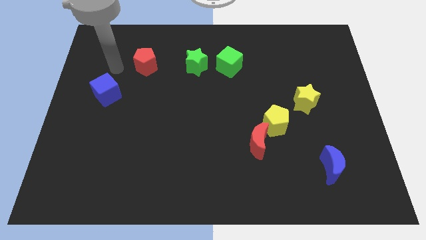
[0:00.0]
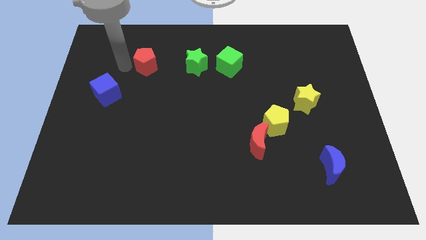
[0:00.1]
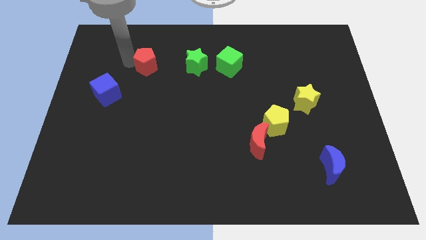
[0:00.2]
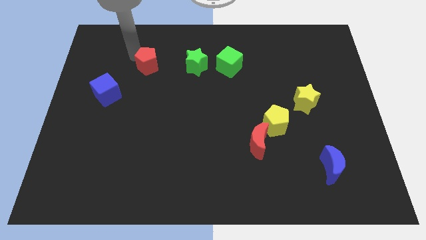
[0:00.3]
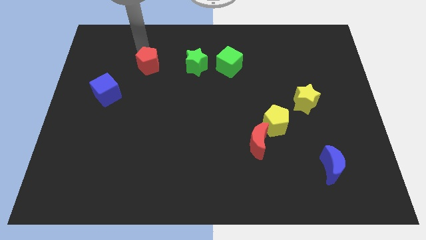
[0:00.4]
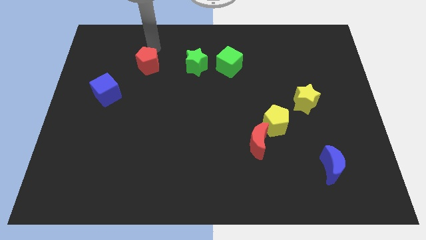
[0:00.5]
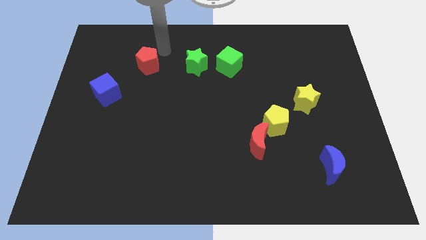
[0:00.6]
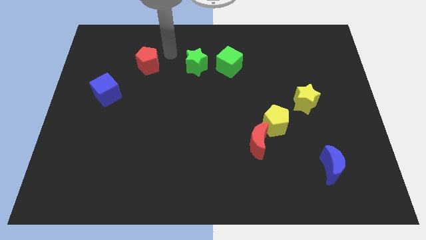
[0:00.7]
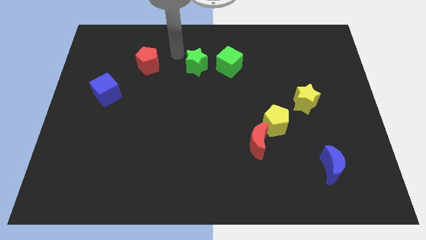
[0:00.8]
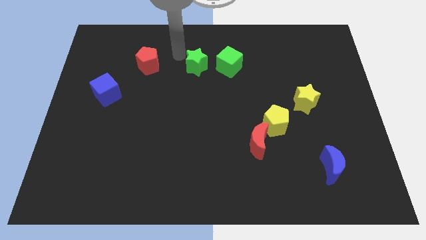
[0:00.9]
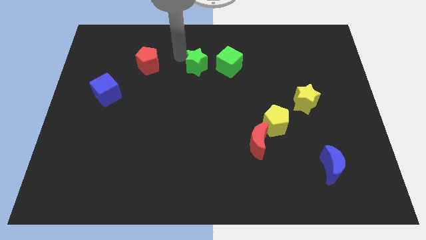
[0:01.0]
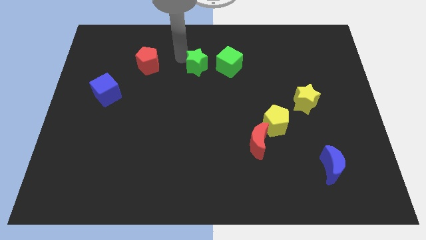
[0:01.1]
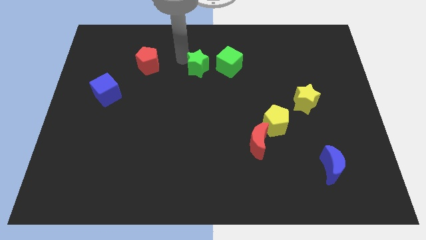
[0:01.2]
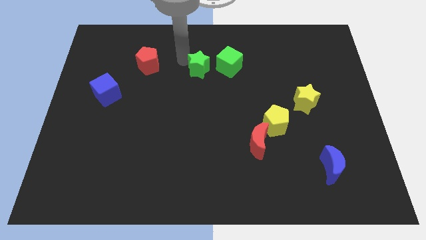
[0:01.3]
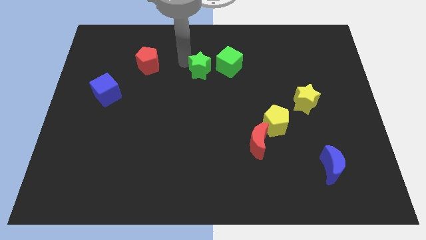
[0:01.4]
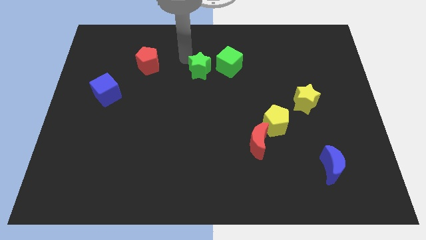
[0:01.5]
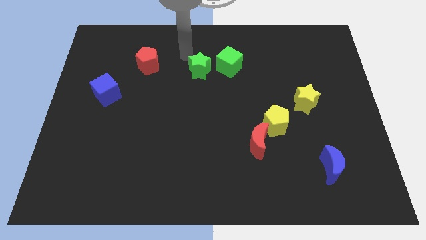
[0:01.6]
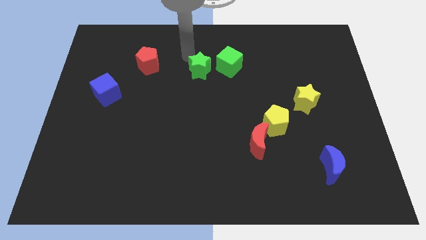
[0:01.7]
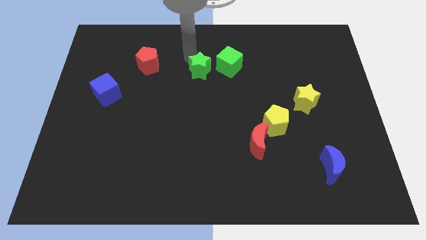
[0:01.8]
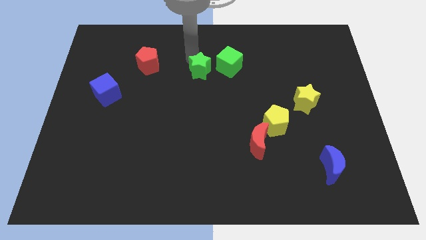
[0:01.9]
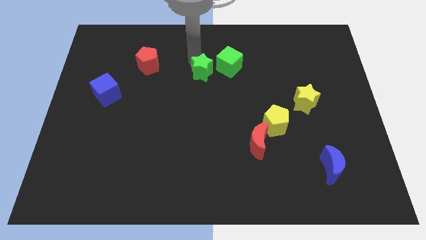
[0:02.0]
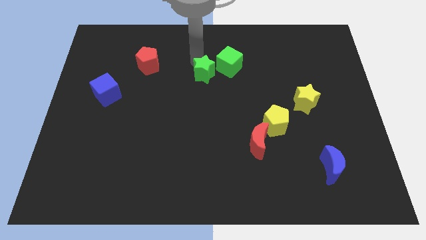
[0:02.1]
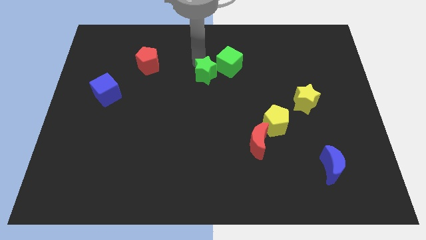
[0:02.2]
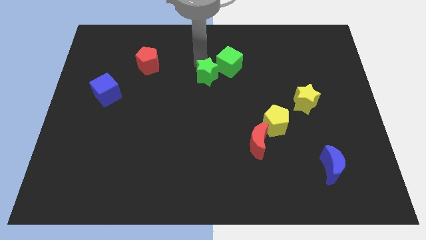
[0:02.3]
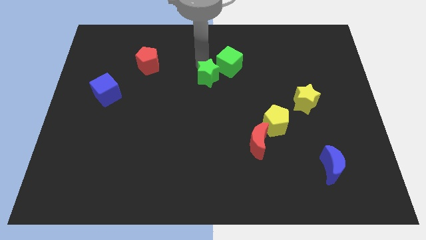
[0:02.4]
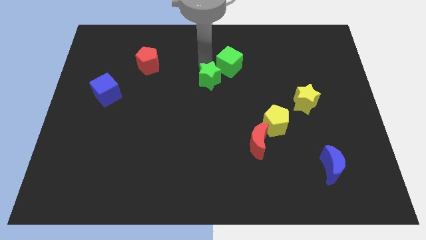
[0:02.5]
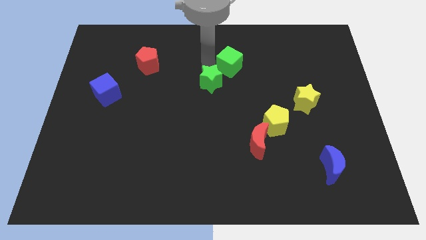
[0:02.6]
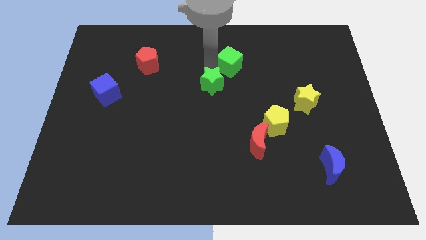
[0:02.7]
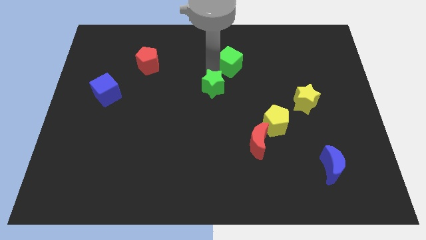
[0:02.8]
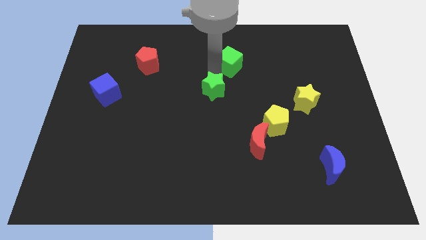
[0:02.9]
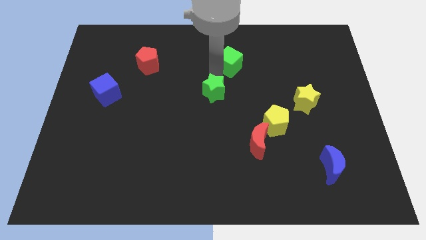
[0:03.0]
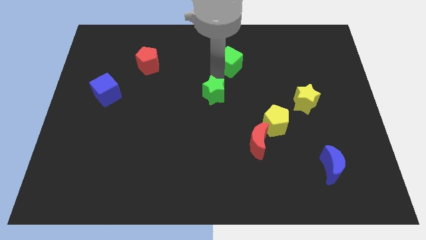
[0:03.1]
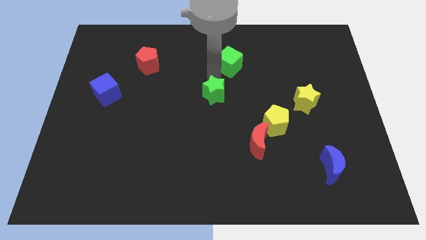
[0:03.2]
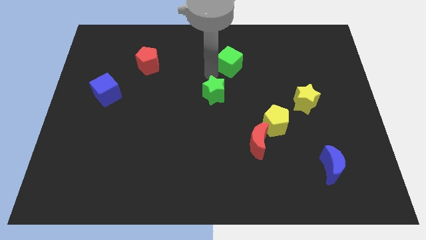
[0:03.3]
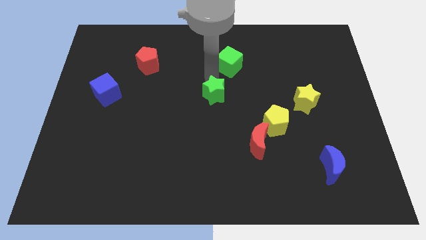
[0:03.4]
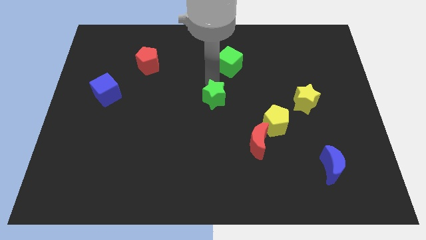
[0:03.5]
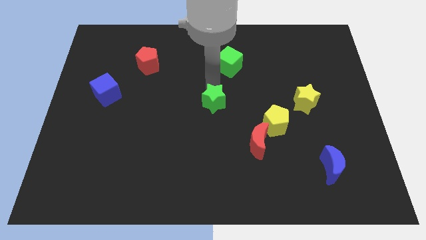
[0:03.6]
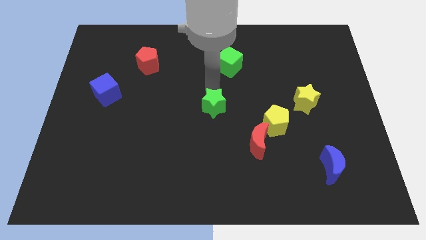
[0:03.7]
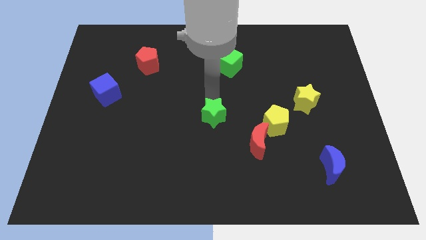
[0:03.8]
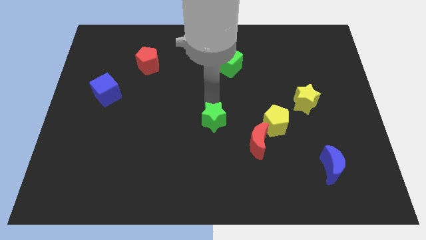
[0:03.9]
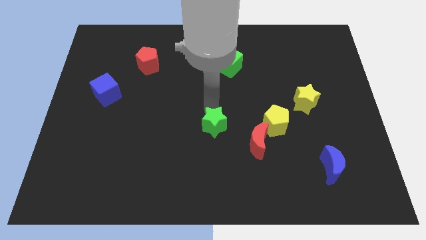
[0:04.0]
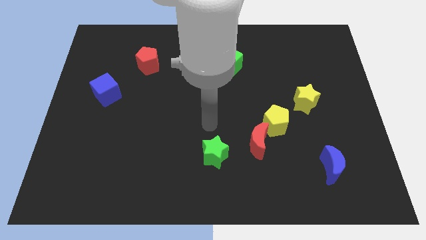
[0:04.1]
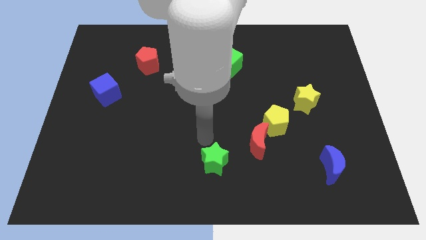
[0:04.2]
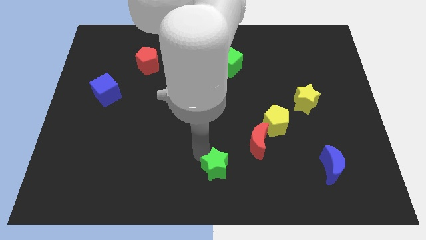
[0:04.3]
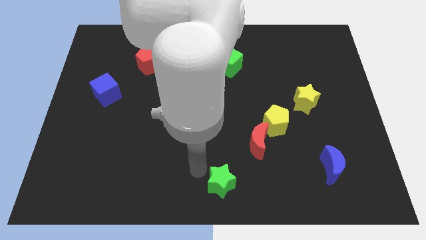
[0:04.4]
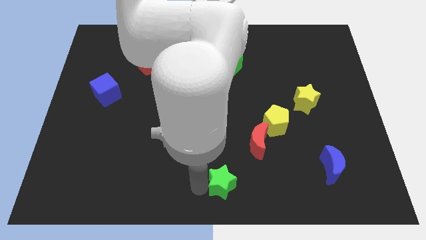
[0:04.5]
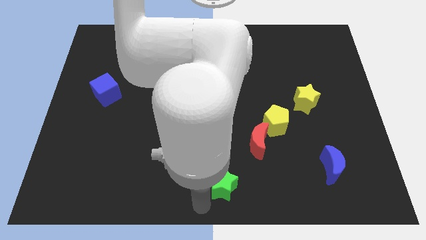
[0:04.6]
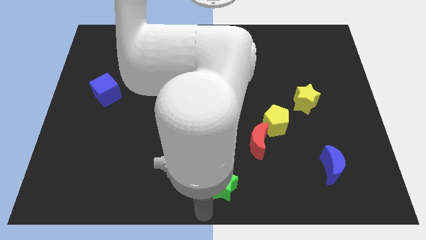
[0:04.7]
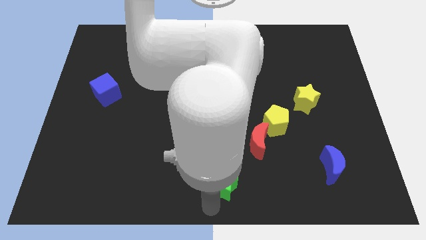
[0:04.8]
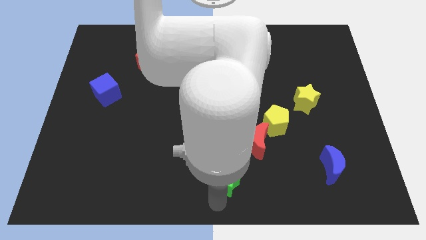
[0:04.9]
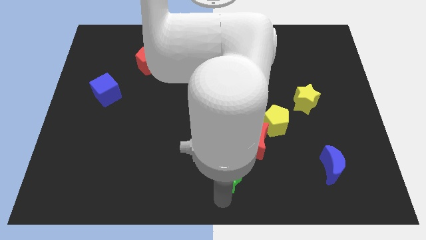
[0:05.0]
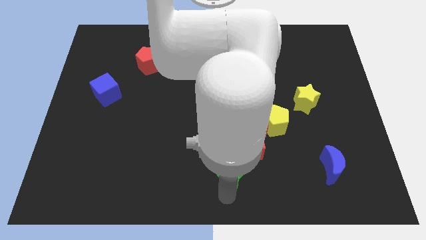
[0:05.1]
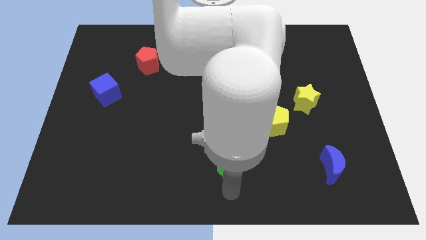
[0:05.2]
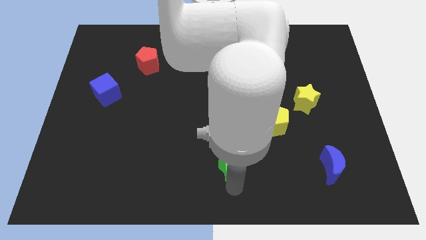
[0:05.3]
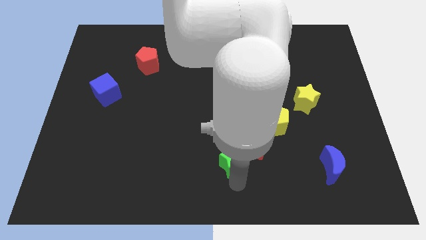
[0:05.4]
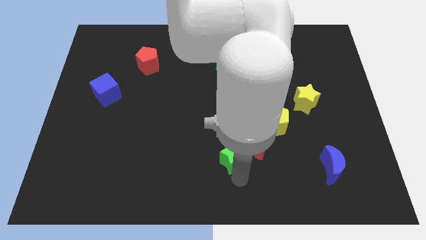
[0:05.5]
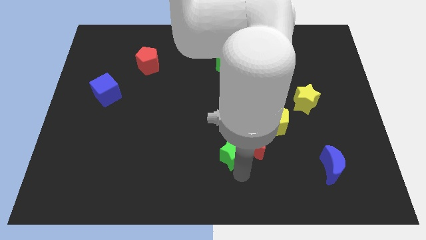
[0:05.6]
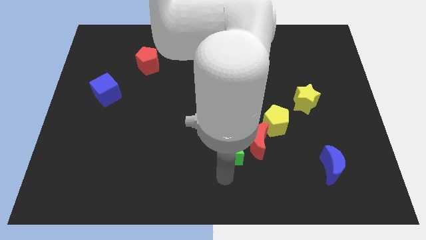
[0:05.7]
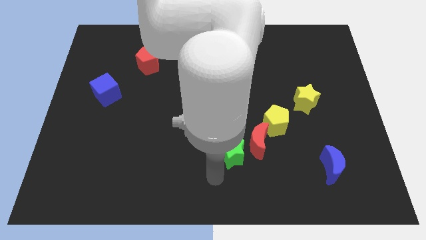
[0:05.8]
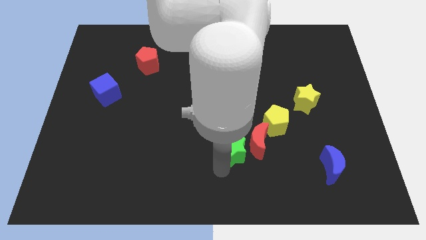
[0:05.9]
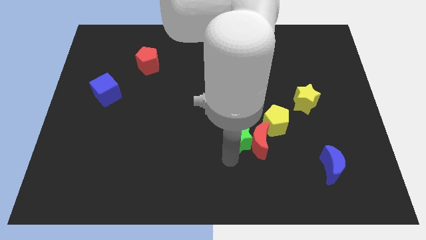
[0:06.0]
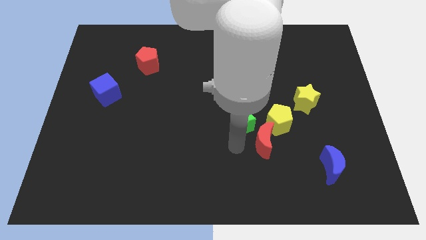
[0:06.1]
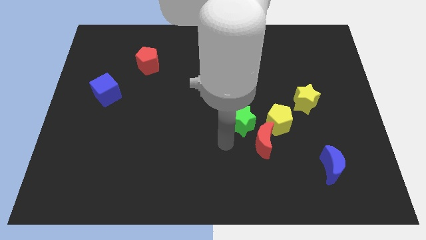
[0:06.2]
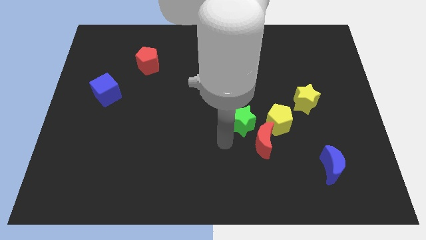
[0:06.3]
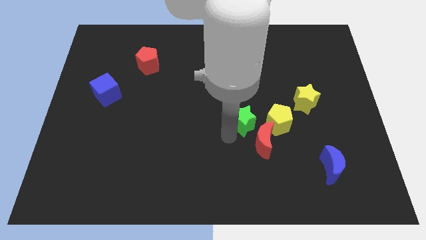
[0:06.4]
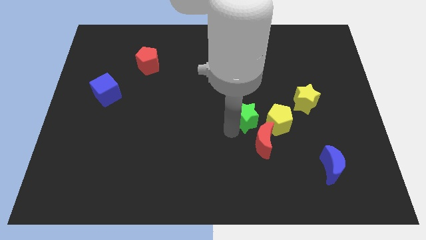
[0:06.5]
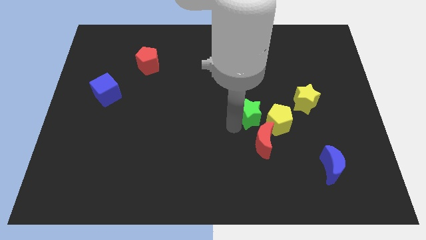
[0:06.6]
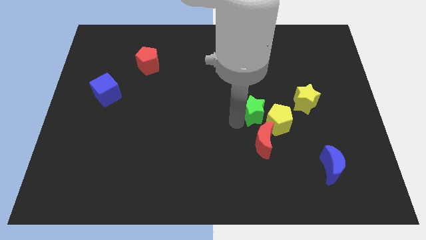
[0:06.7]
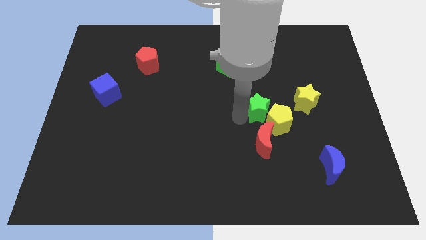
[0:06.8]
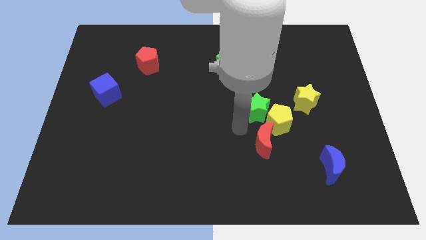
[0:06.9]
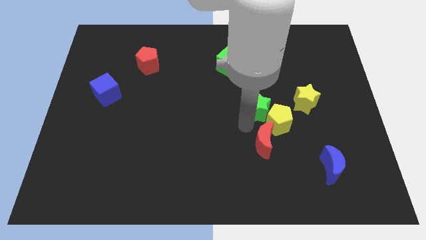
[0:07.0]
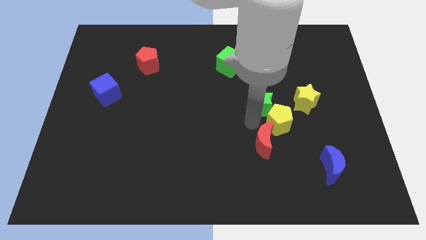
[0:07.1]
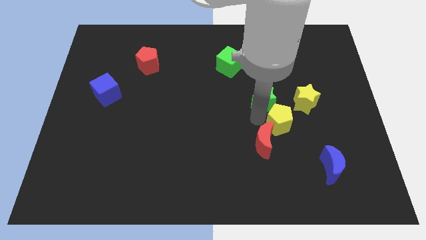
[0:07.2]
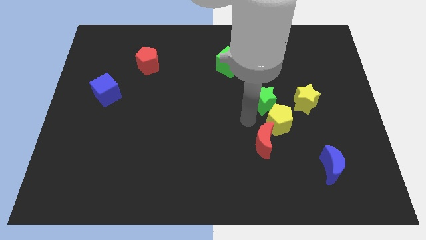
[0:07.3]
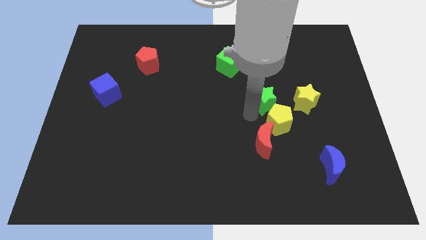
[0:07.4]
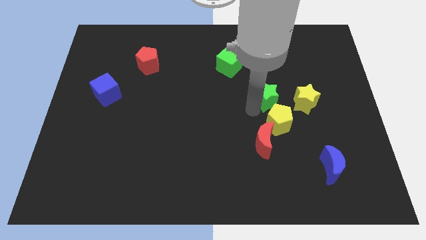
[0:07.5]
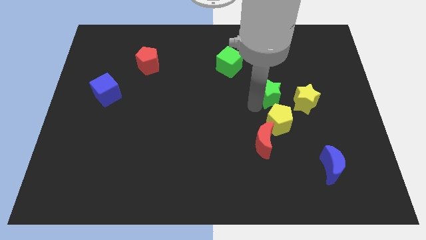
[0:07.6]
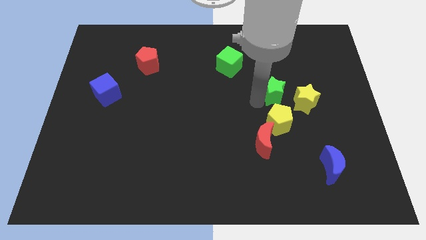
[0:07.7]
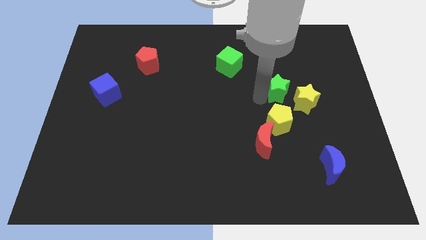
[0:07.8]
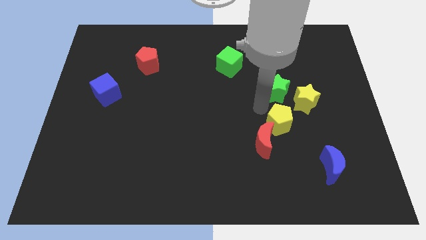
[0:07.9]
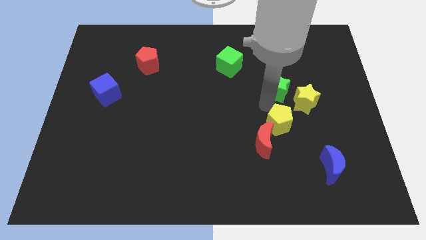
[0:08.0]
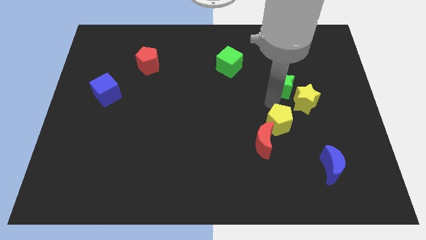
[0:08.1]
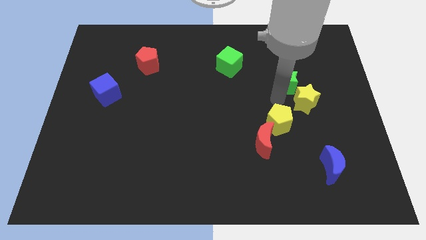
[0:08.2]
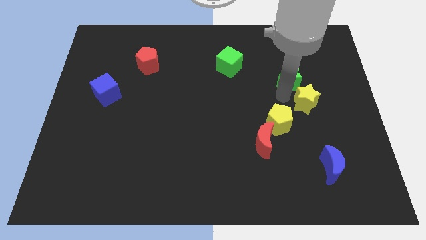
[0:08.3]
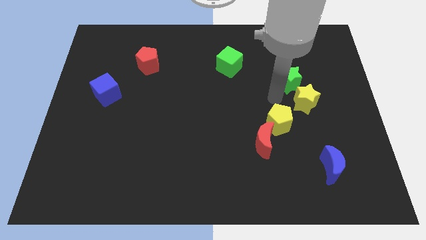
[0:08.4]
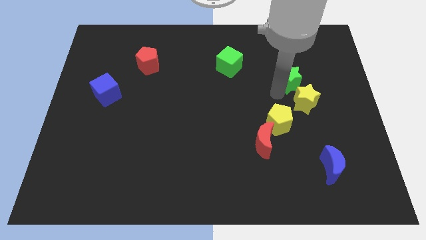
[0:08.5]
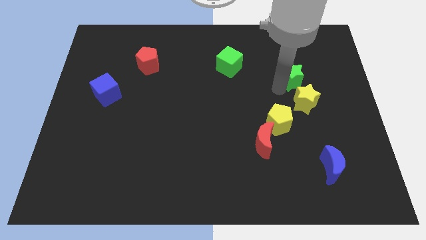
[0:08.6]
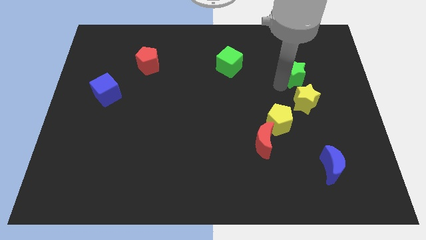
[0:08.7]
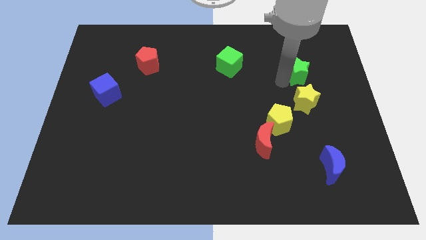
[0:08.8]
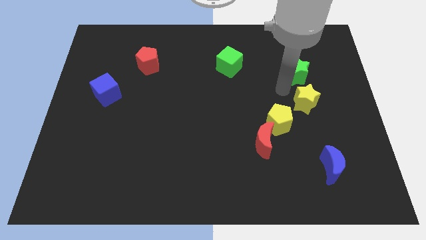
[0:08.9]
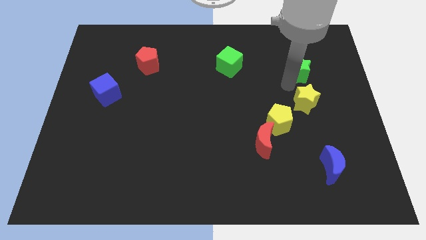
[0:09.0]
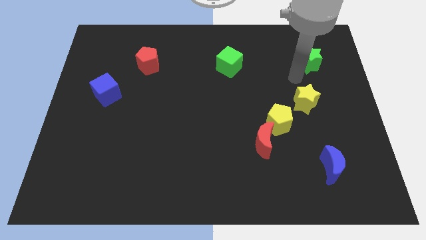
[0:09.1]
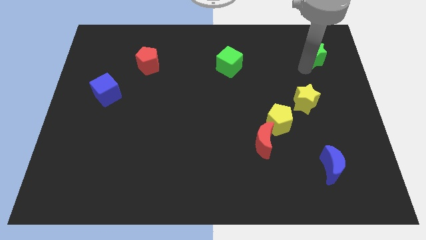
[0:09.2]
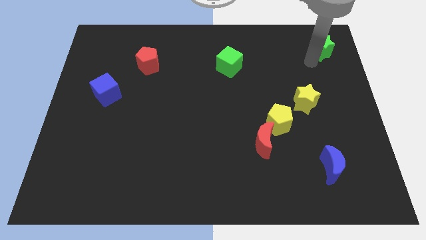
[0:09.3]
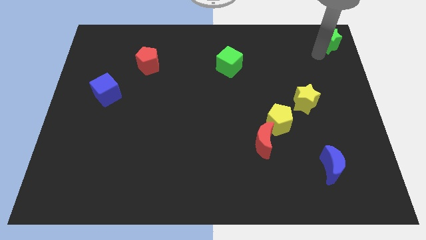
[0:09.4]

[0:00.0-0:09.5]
put the green star to the top right corner
